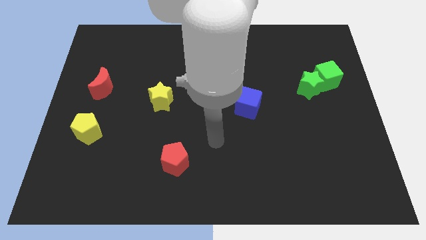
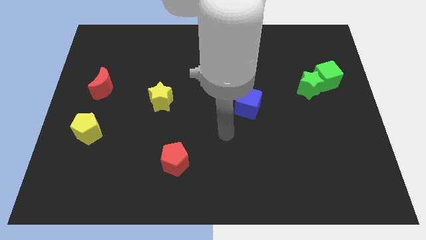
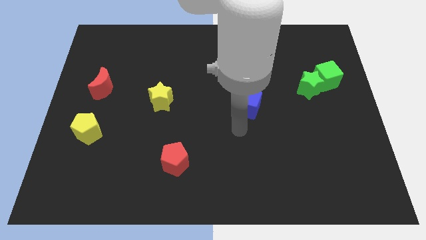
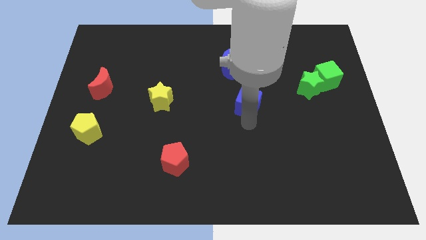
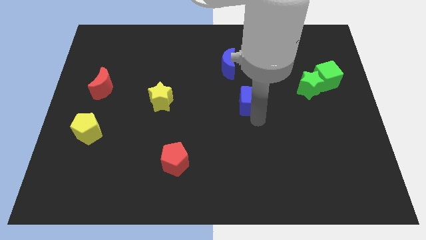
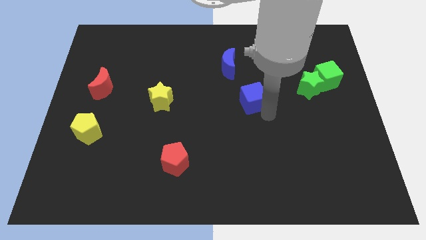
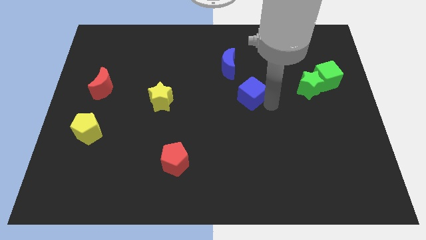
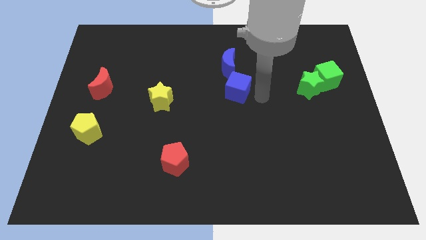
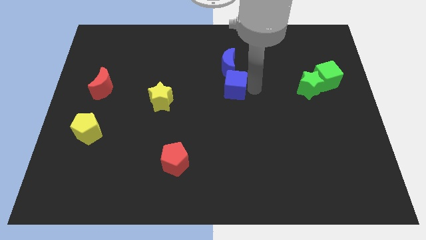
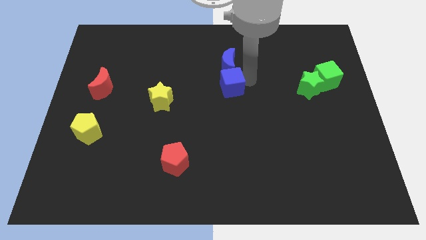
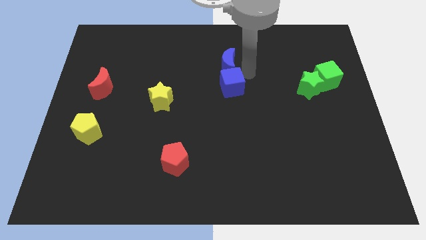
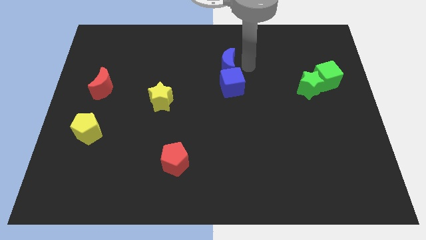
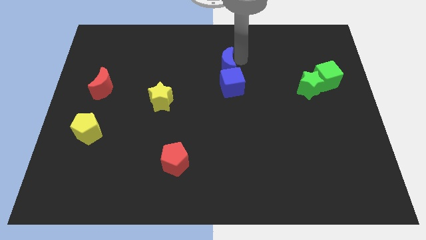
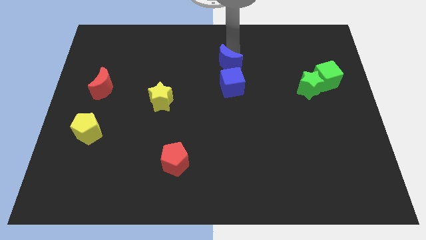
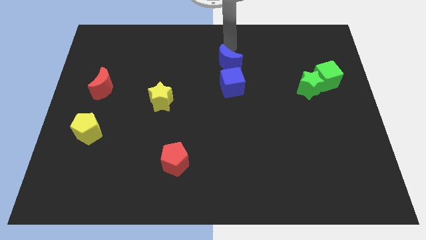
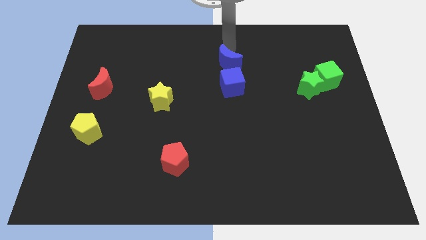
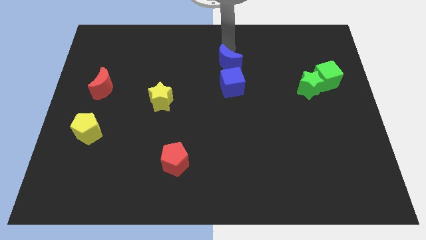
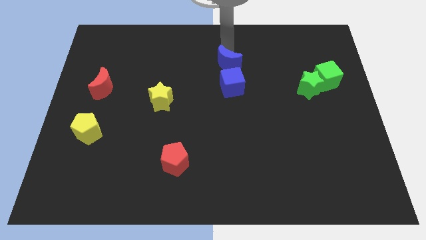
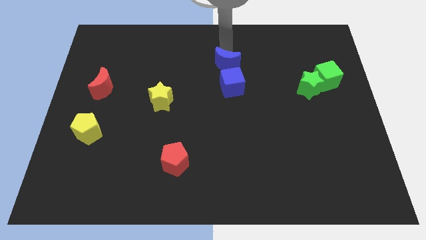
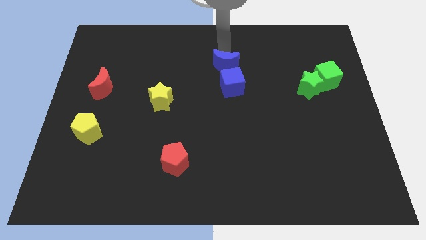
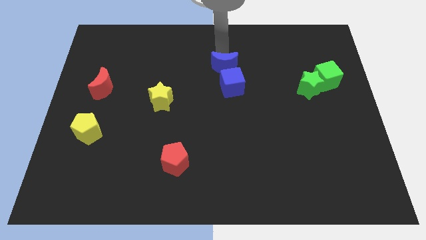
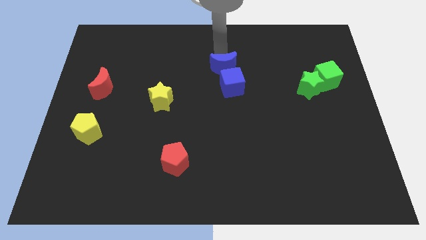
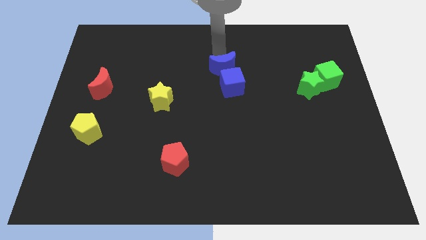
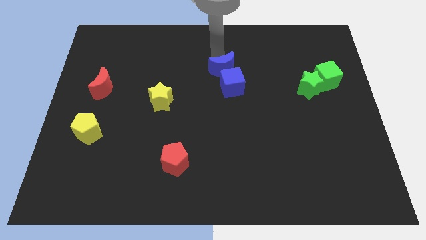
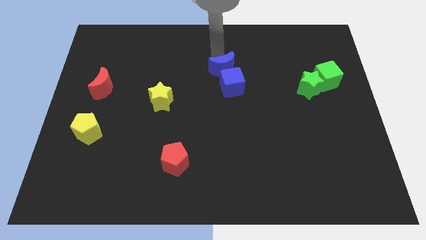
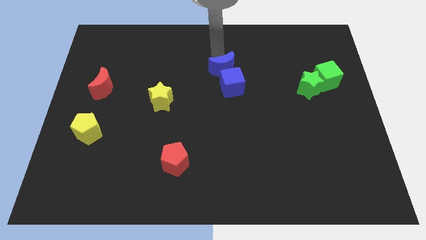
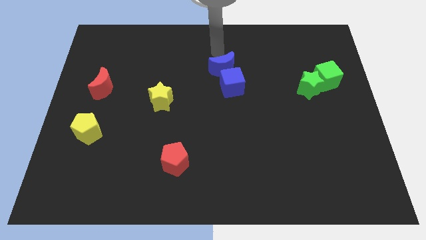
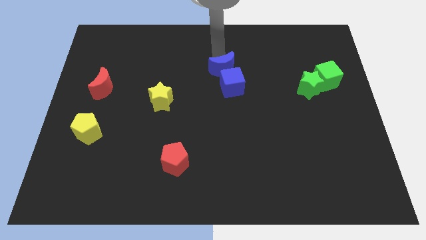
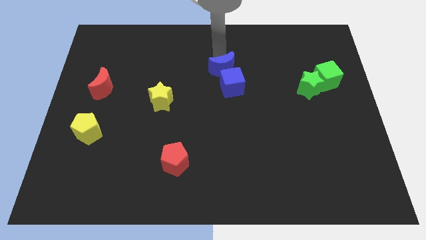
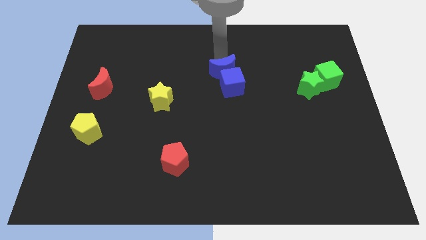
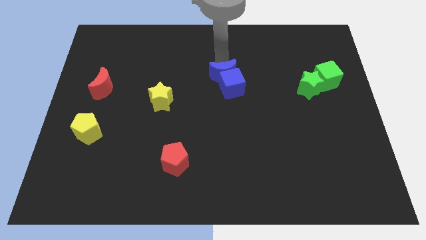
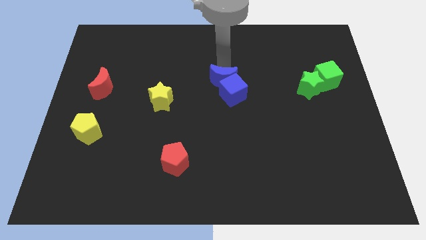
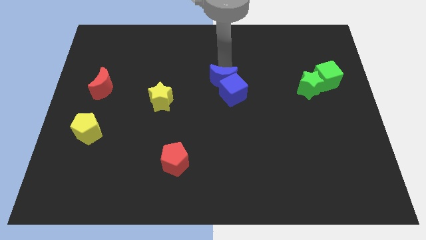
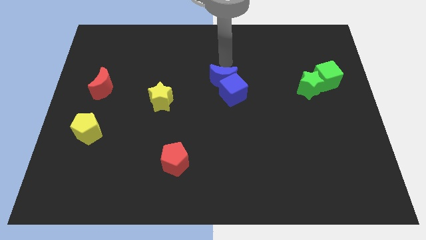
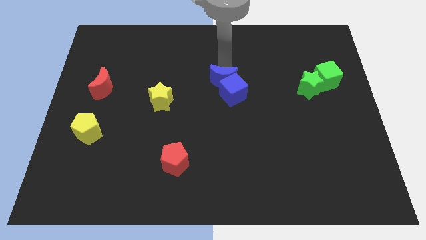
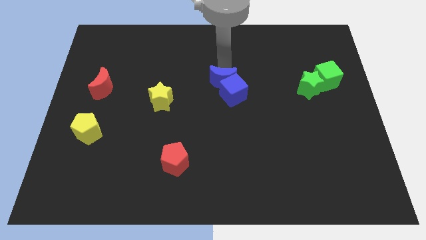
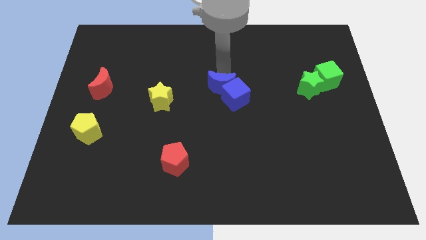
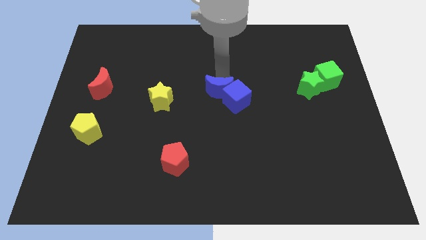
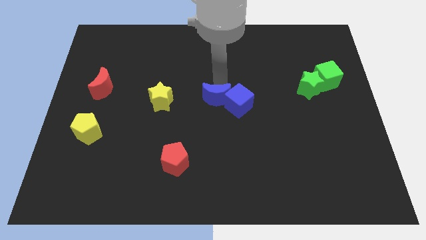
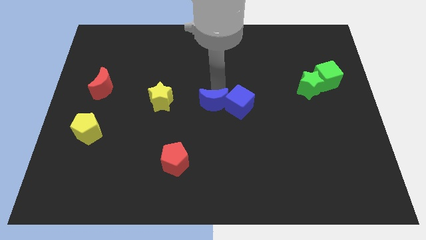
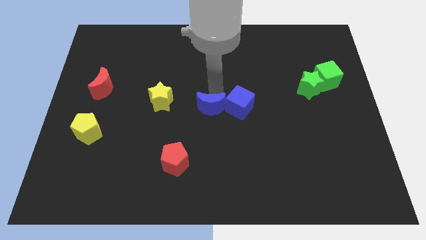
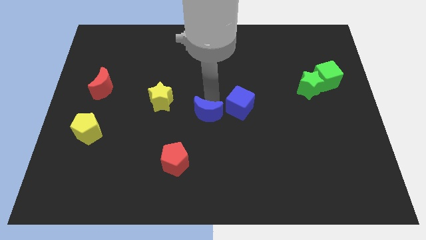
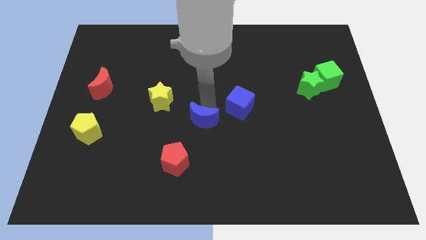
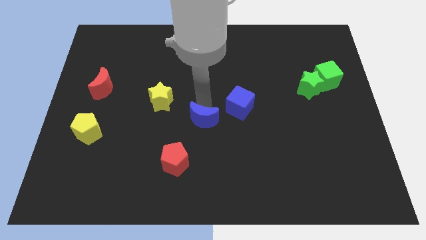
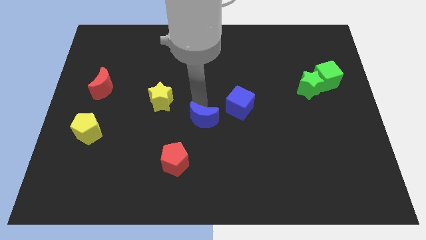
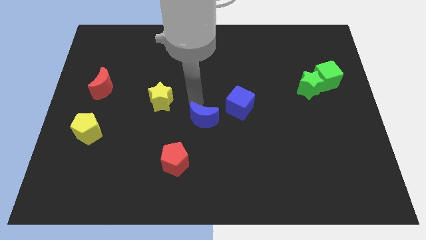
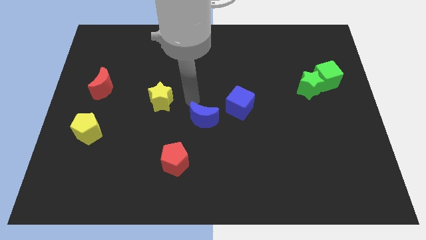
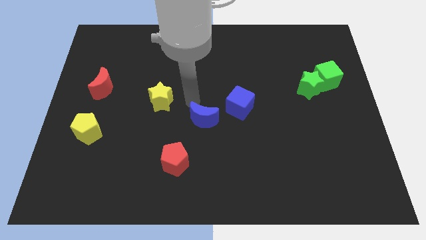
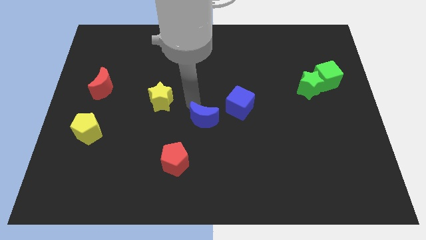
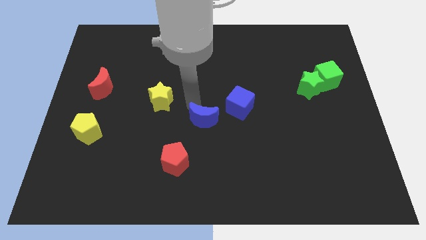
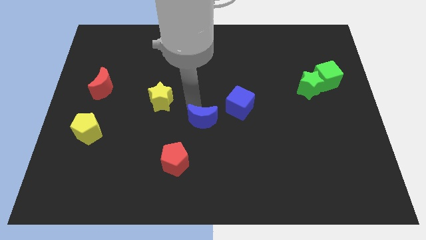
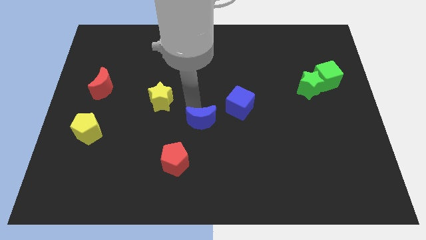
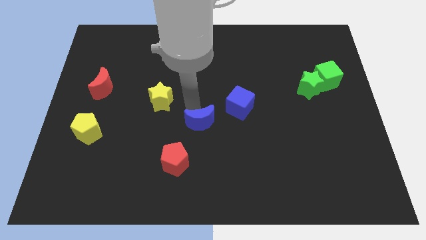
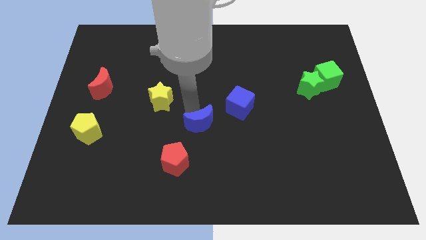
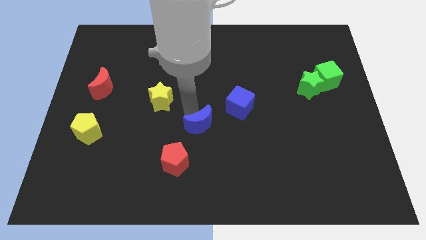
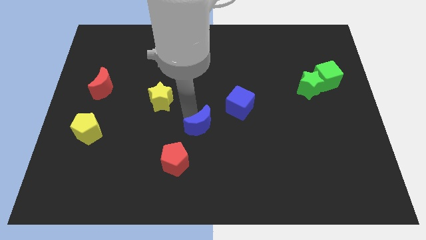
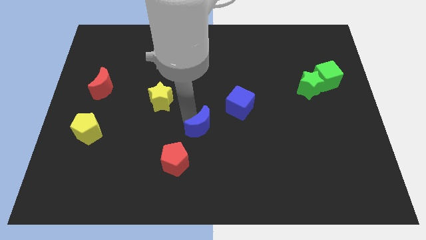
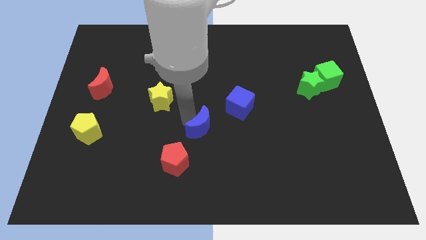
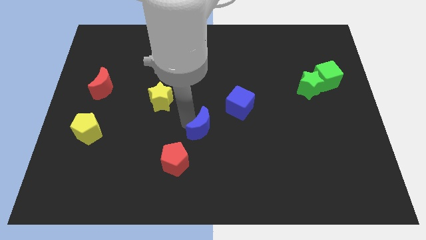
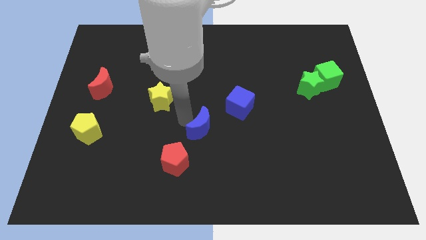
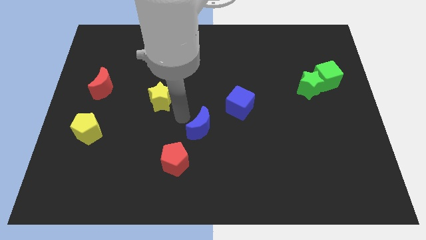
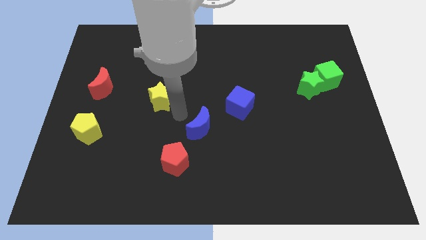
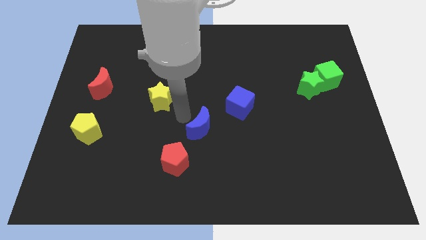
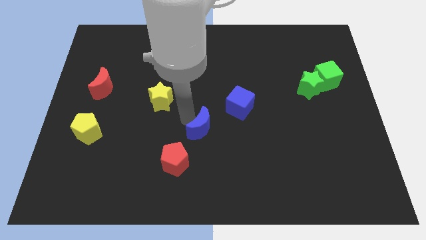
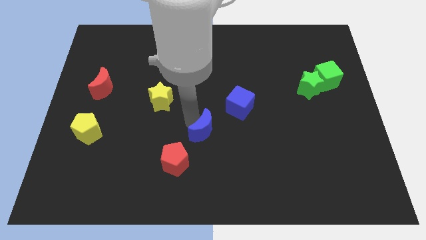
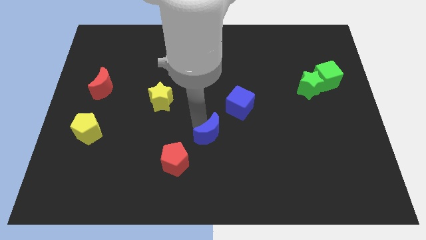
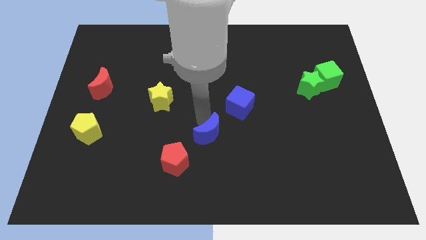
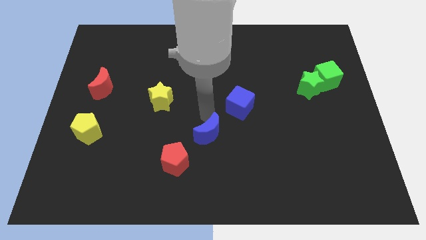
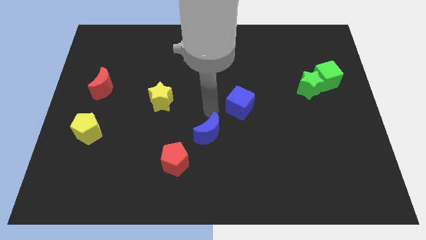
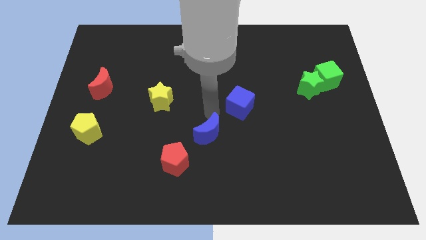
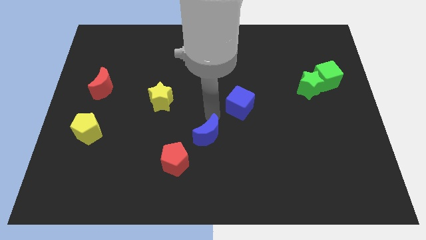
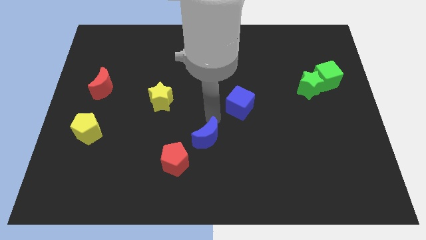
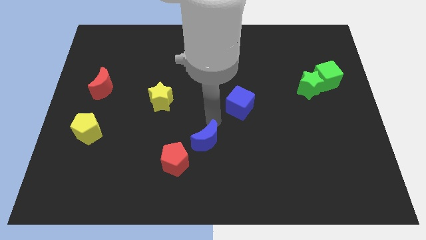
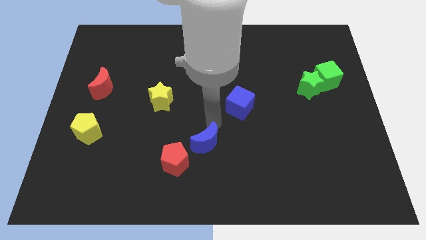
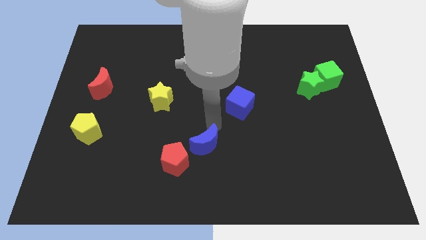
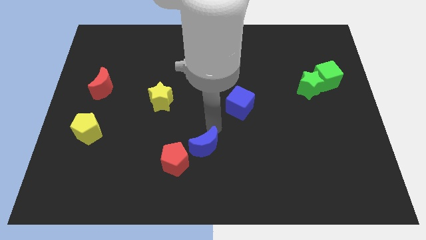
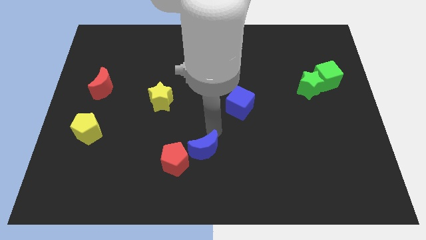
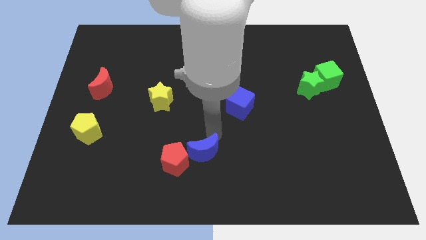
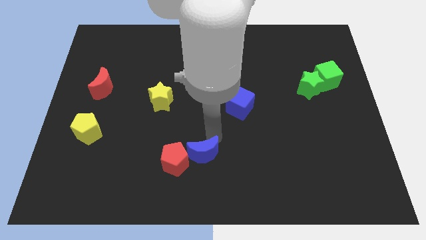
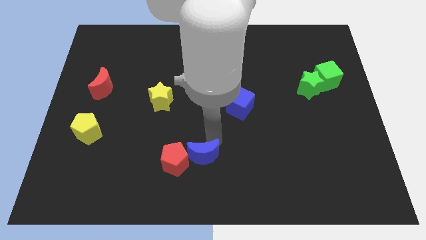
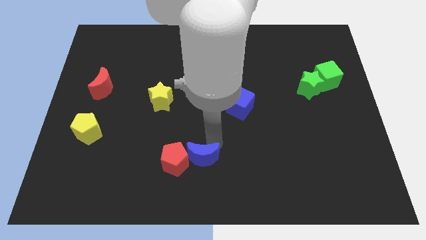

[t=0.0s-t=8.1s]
put the blue moon diagonally down and to the right of the red pentagon
